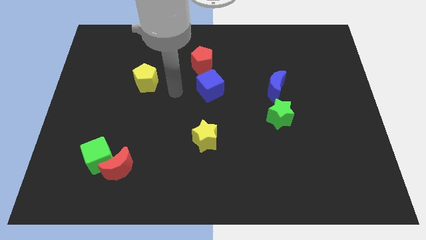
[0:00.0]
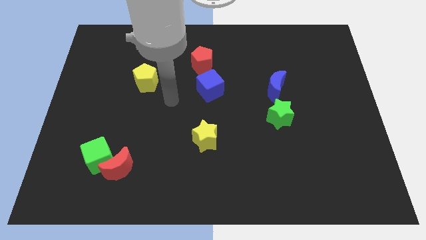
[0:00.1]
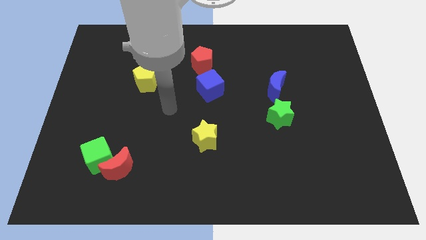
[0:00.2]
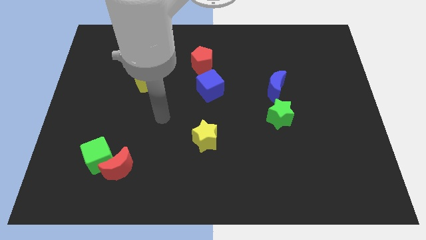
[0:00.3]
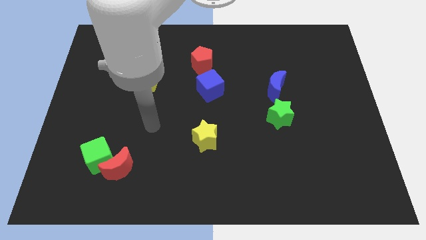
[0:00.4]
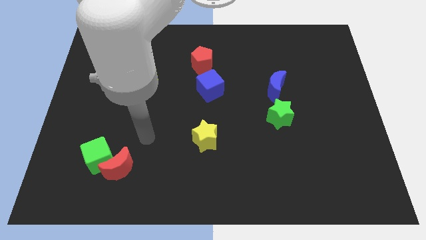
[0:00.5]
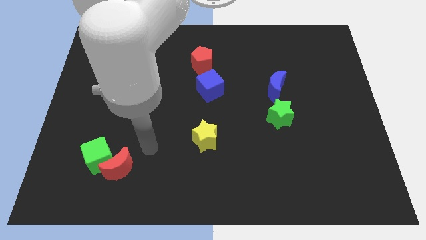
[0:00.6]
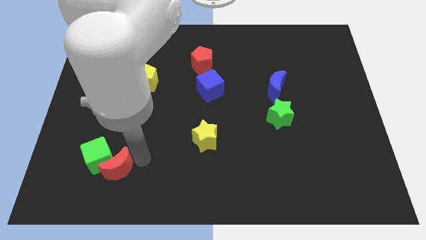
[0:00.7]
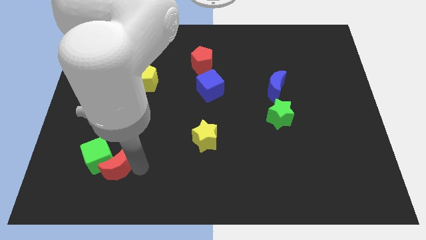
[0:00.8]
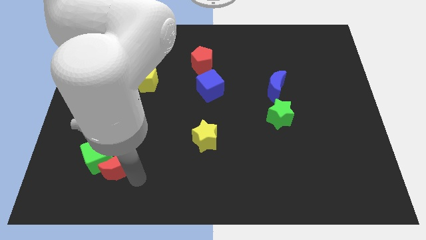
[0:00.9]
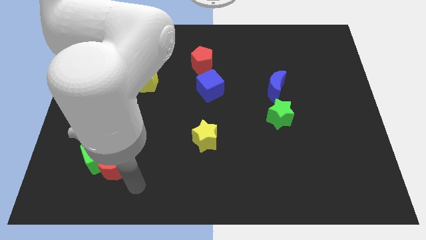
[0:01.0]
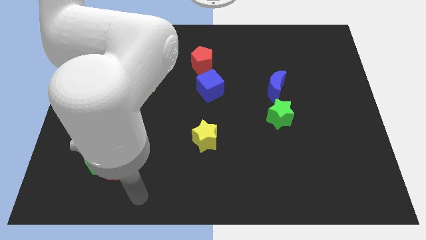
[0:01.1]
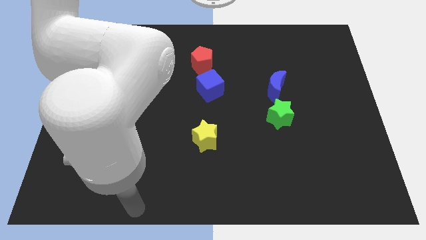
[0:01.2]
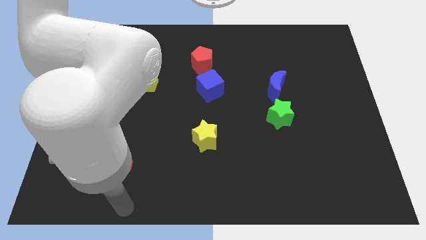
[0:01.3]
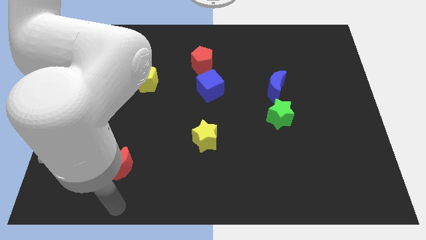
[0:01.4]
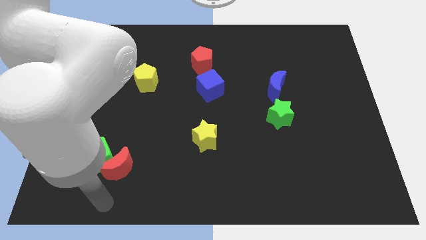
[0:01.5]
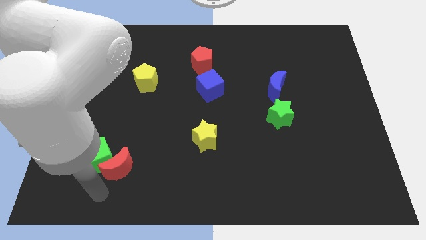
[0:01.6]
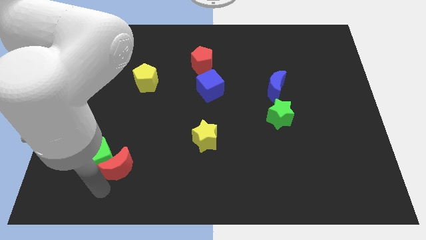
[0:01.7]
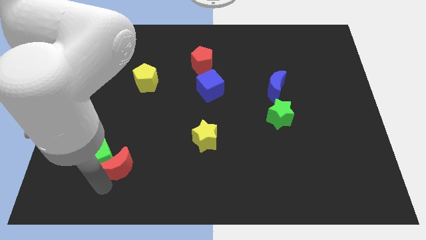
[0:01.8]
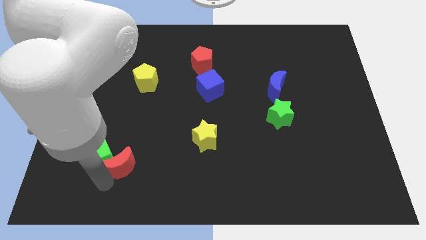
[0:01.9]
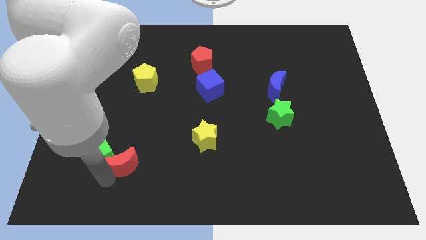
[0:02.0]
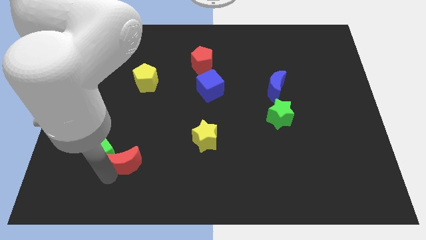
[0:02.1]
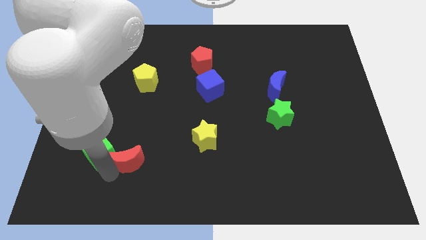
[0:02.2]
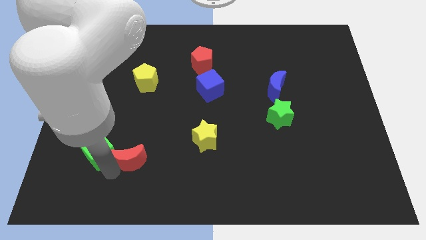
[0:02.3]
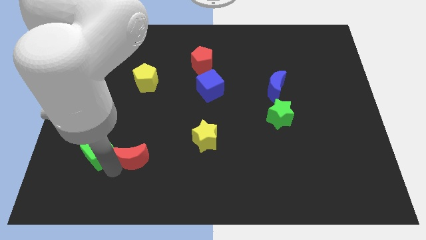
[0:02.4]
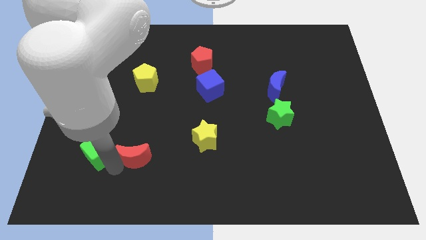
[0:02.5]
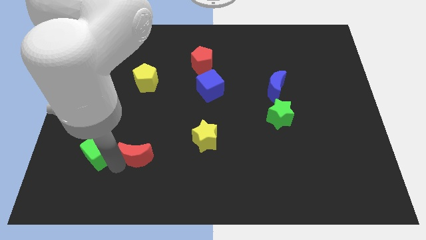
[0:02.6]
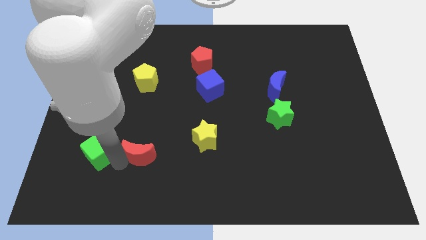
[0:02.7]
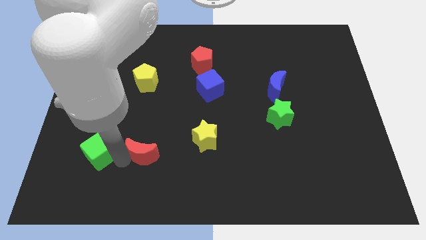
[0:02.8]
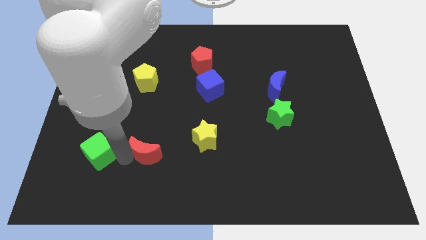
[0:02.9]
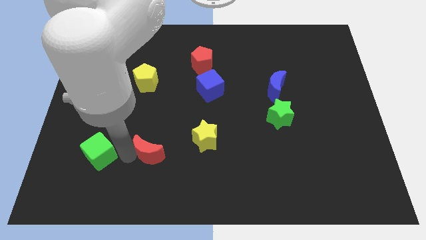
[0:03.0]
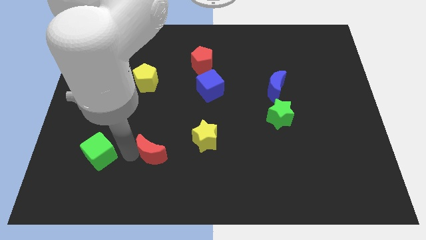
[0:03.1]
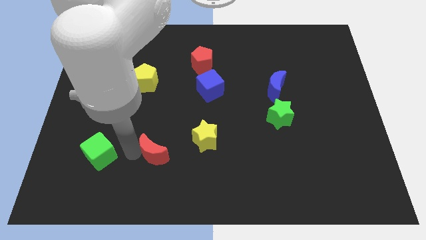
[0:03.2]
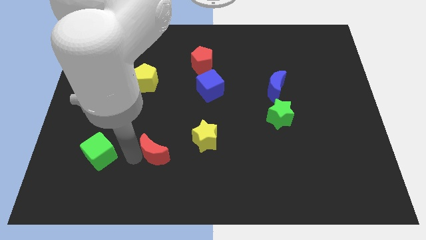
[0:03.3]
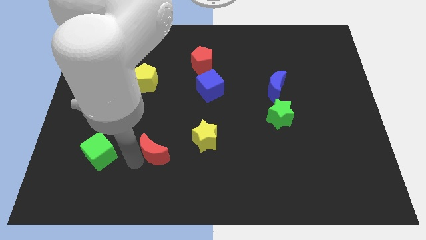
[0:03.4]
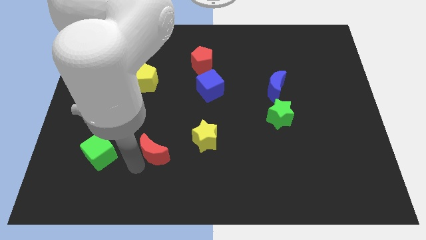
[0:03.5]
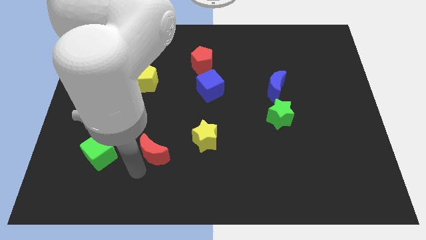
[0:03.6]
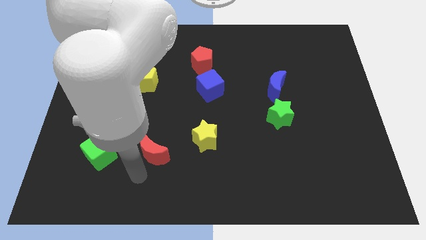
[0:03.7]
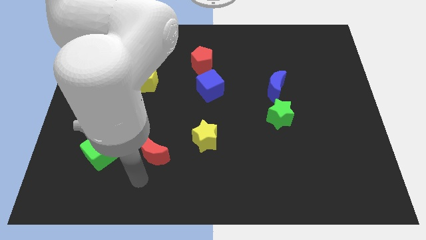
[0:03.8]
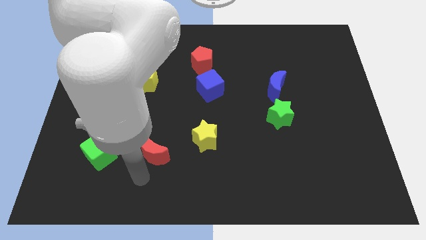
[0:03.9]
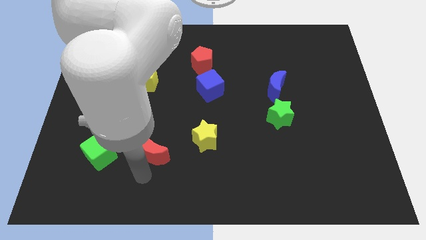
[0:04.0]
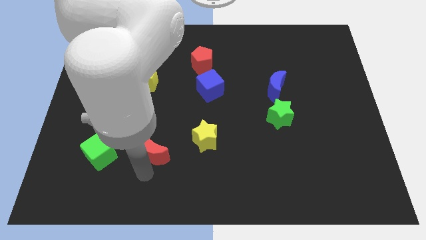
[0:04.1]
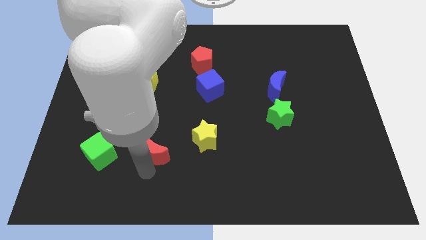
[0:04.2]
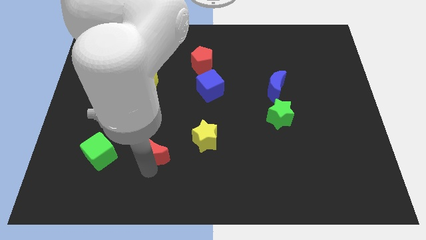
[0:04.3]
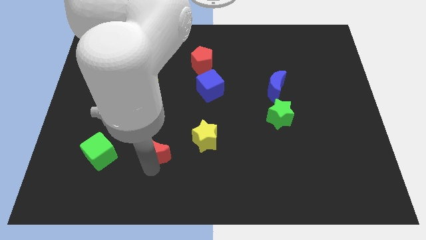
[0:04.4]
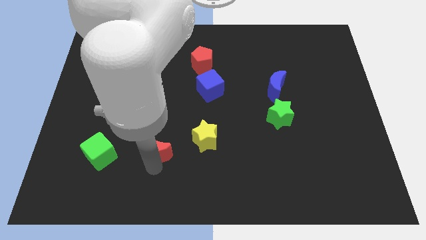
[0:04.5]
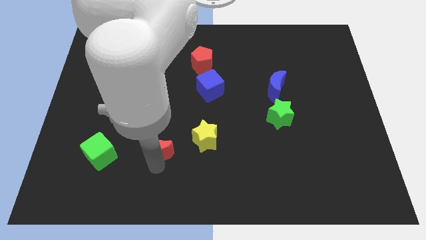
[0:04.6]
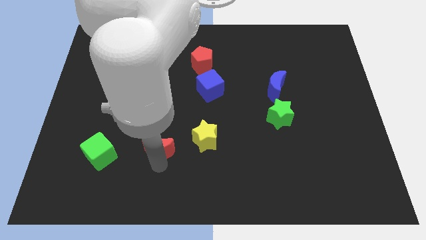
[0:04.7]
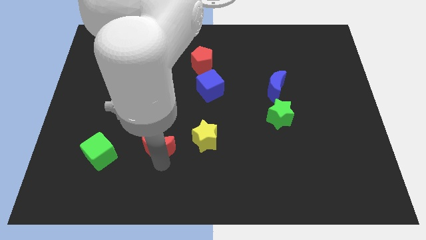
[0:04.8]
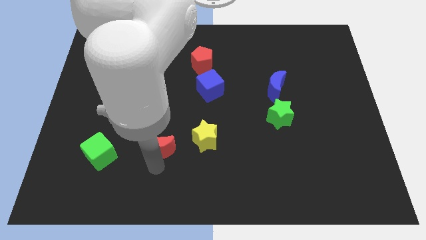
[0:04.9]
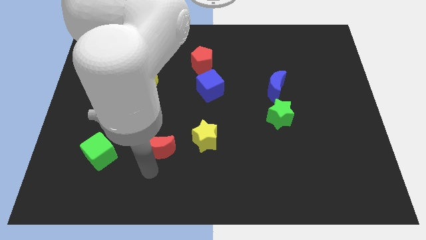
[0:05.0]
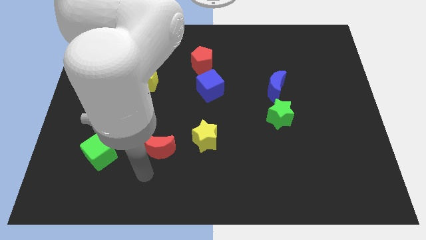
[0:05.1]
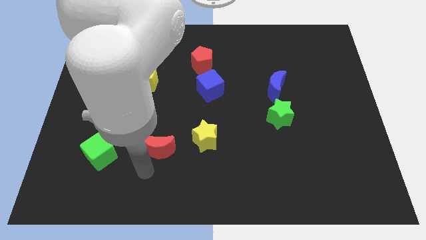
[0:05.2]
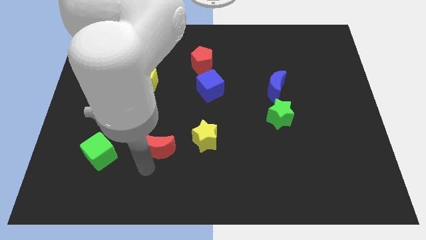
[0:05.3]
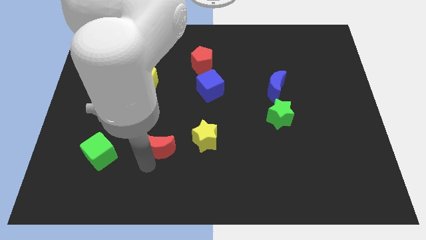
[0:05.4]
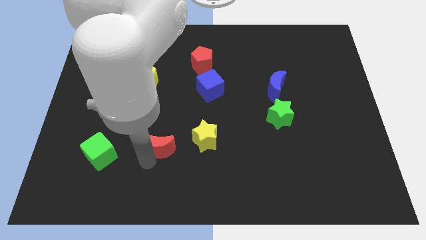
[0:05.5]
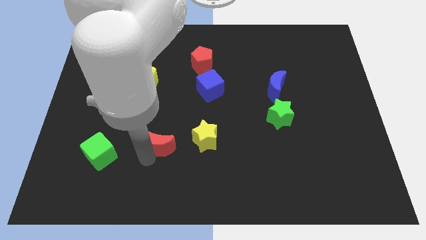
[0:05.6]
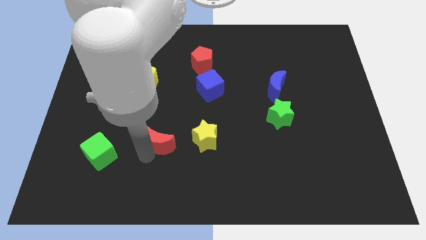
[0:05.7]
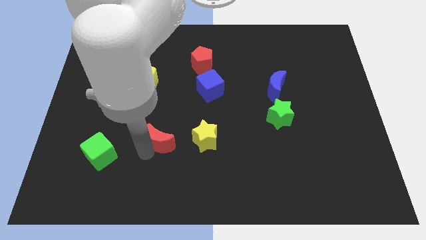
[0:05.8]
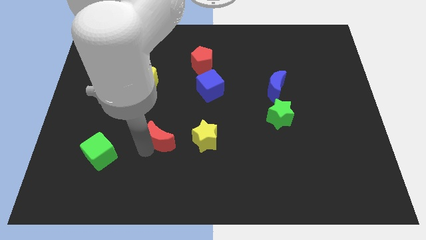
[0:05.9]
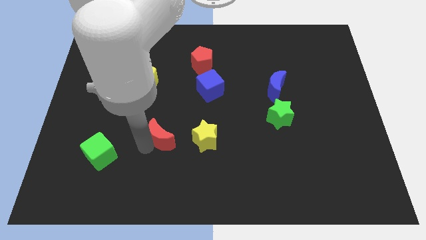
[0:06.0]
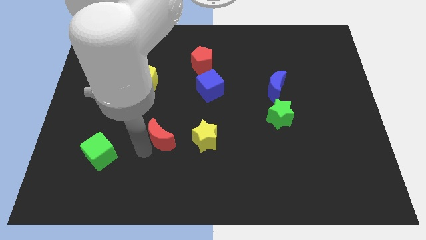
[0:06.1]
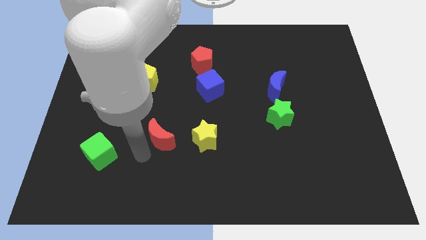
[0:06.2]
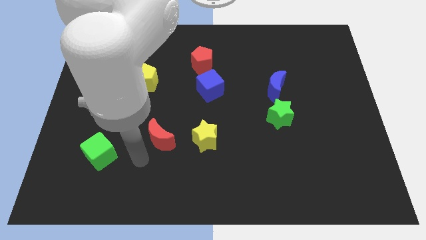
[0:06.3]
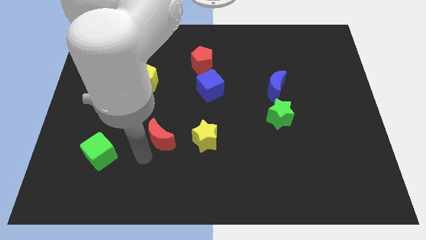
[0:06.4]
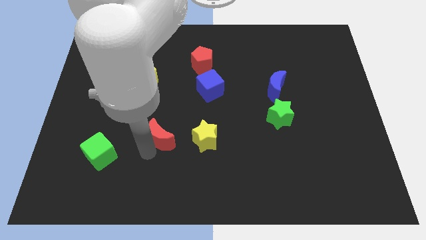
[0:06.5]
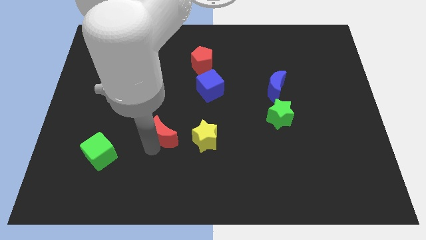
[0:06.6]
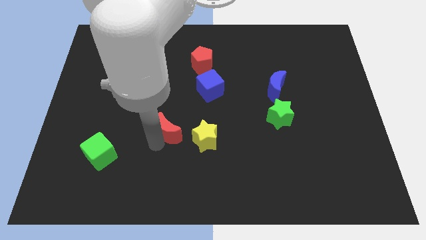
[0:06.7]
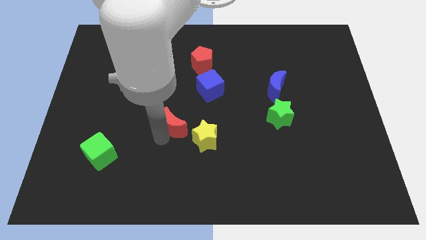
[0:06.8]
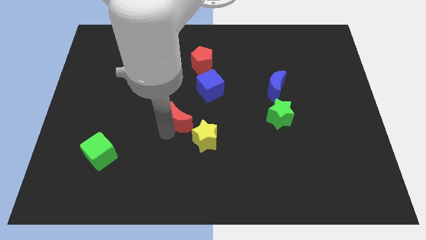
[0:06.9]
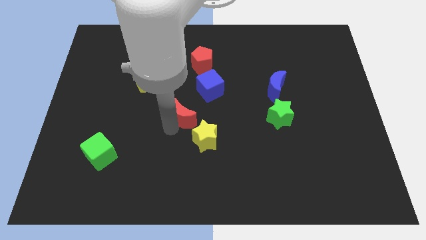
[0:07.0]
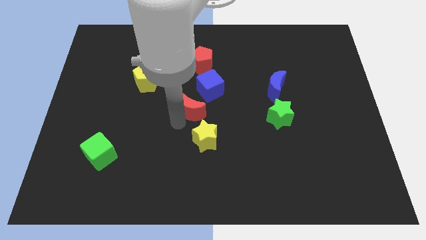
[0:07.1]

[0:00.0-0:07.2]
put the red moon below the red pentagon
